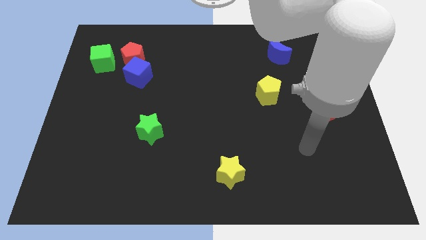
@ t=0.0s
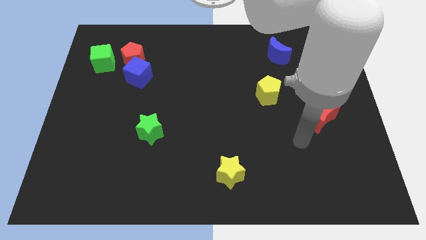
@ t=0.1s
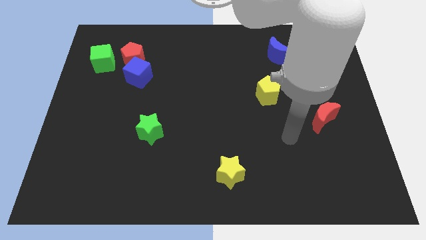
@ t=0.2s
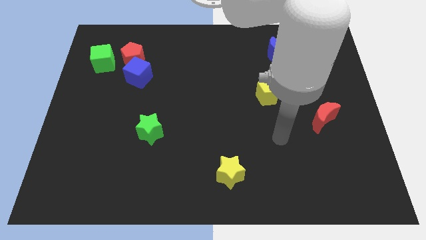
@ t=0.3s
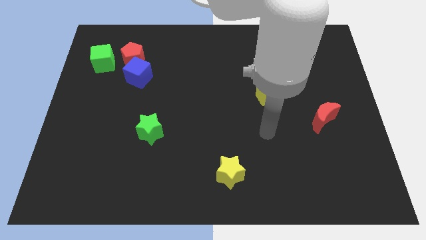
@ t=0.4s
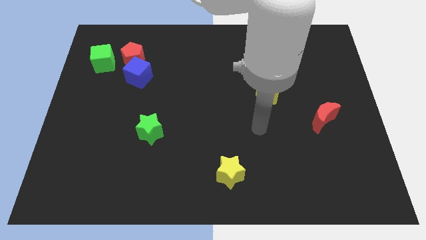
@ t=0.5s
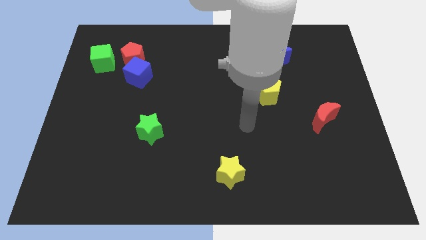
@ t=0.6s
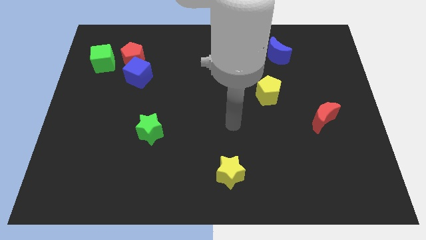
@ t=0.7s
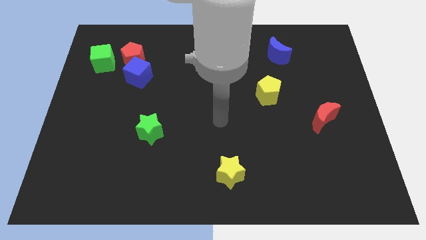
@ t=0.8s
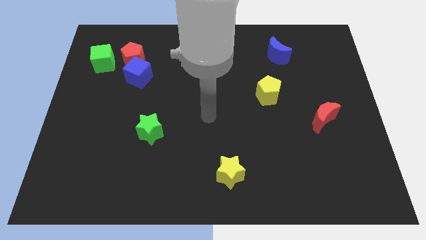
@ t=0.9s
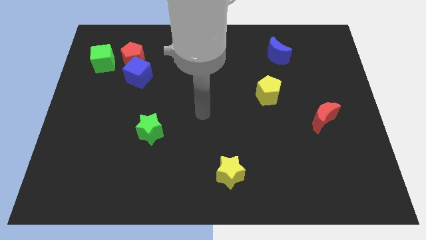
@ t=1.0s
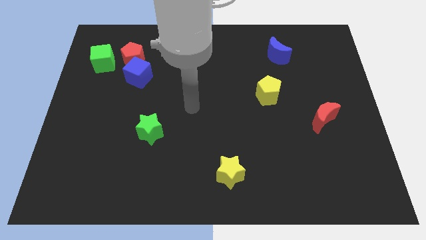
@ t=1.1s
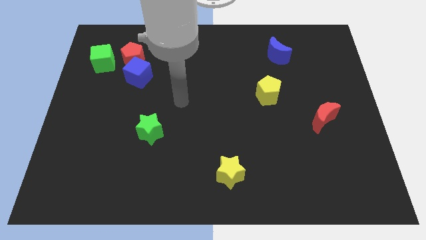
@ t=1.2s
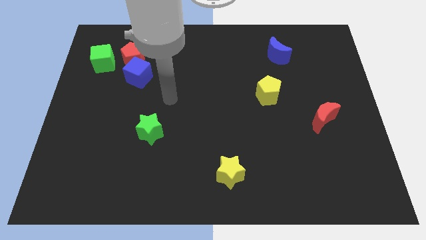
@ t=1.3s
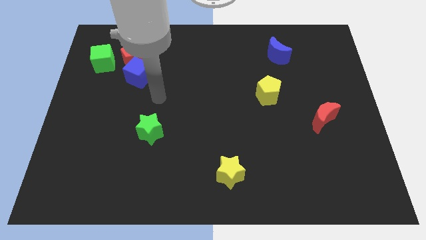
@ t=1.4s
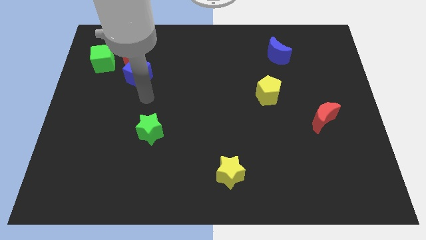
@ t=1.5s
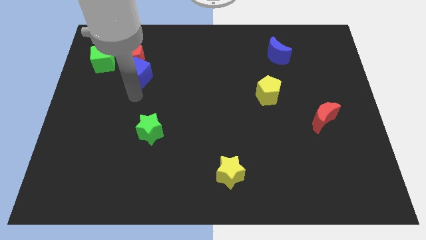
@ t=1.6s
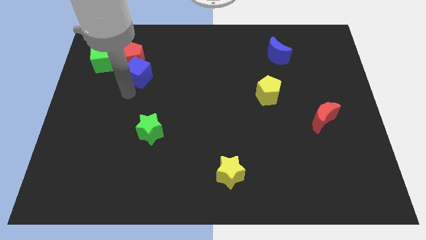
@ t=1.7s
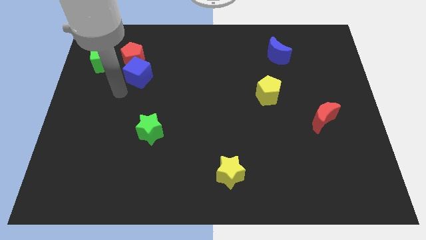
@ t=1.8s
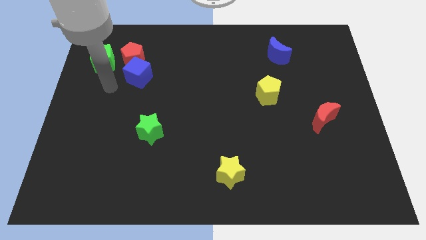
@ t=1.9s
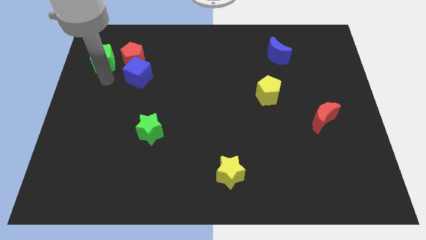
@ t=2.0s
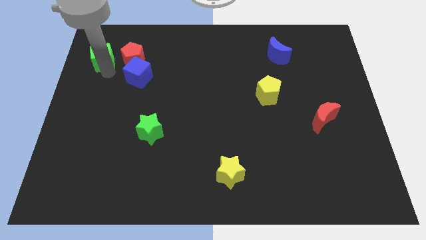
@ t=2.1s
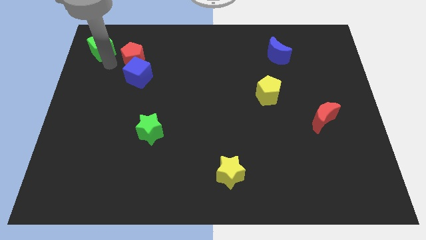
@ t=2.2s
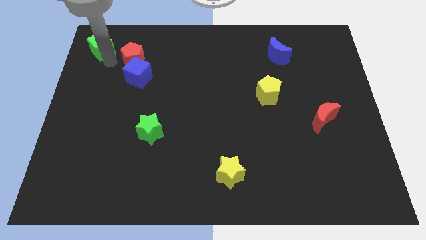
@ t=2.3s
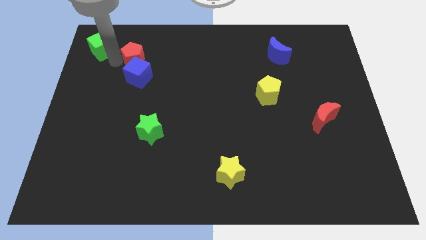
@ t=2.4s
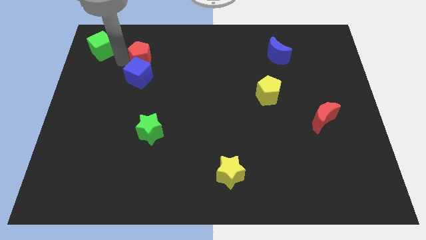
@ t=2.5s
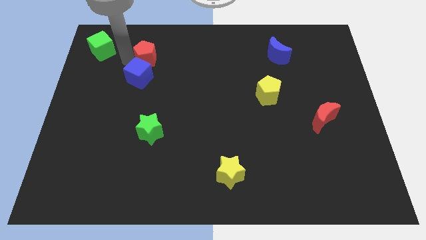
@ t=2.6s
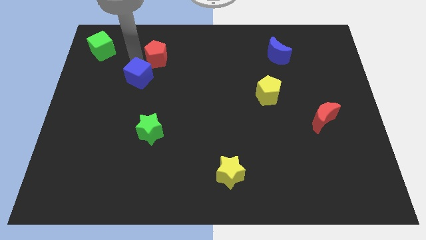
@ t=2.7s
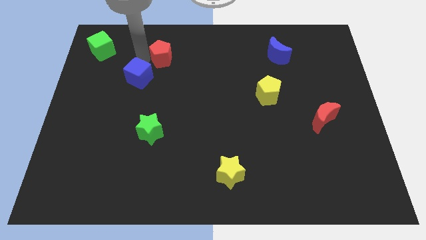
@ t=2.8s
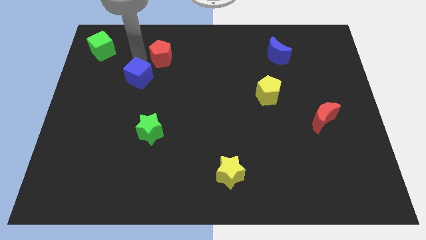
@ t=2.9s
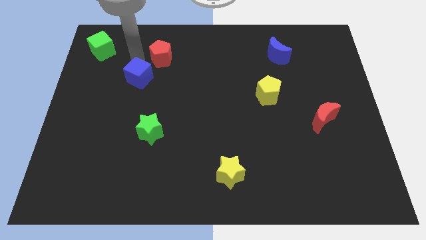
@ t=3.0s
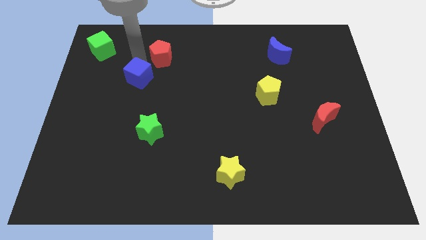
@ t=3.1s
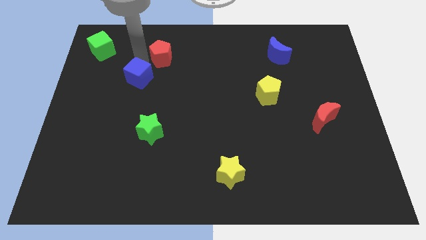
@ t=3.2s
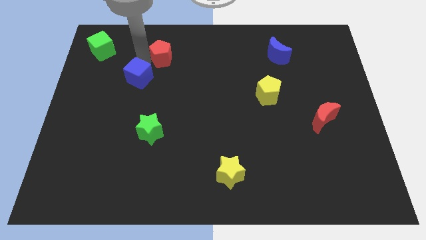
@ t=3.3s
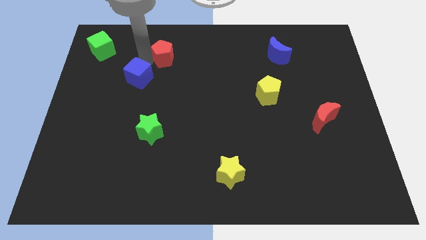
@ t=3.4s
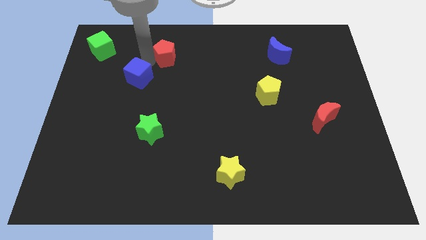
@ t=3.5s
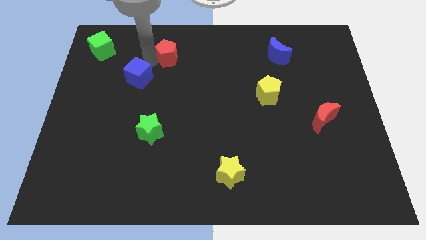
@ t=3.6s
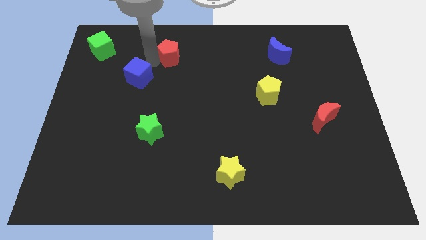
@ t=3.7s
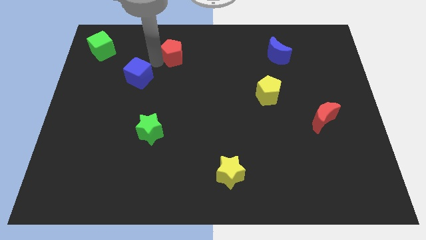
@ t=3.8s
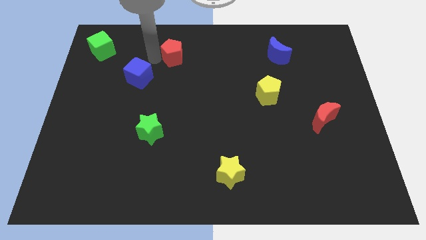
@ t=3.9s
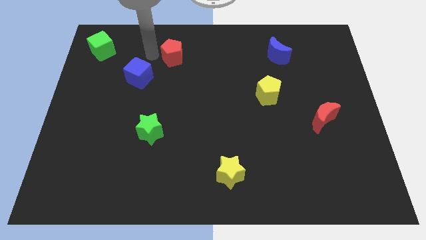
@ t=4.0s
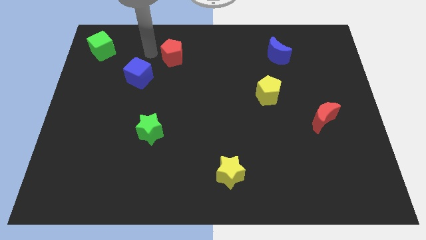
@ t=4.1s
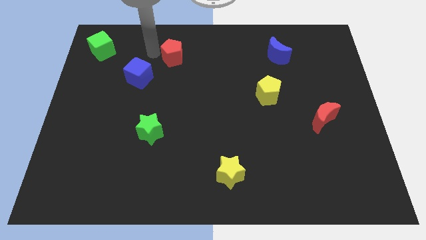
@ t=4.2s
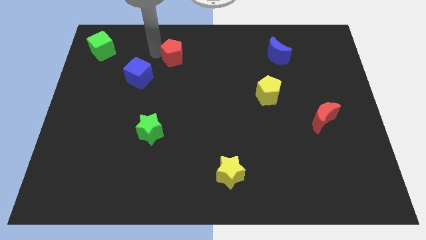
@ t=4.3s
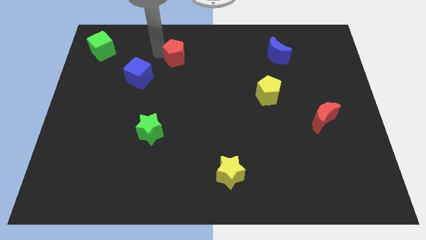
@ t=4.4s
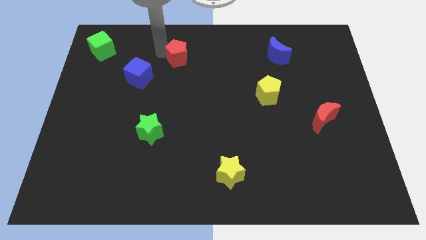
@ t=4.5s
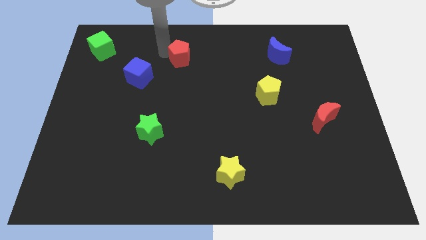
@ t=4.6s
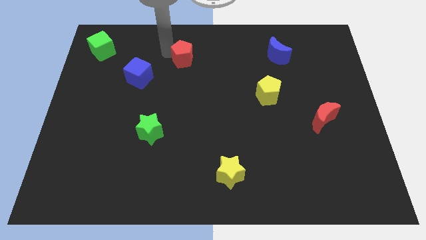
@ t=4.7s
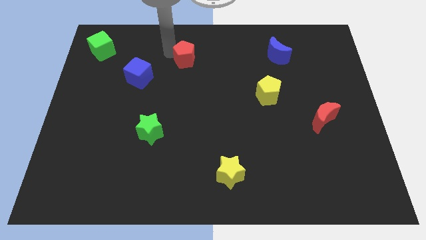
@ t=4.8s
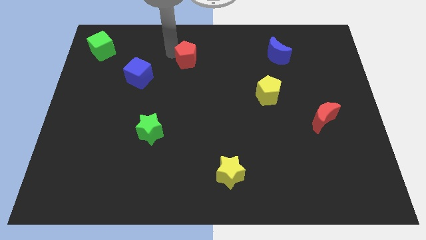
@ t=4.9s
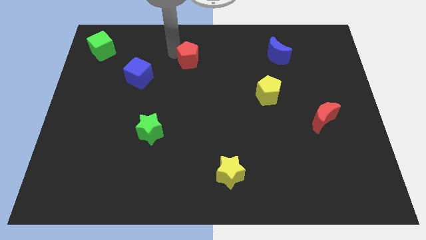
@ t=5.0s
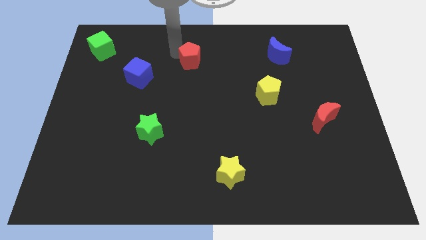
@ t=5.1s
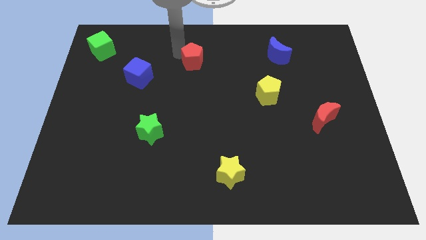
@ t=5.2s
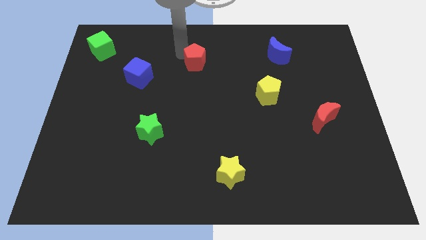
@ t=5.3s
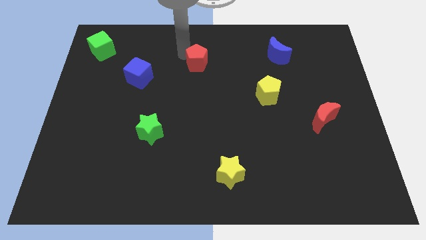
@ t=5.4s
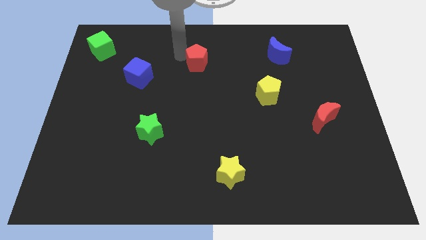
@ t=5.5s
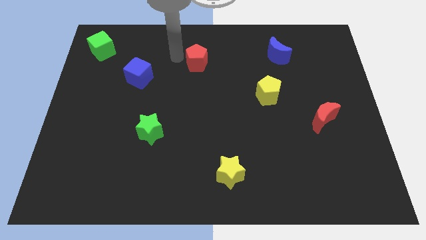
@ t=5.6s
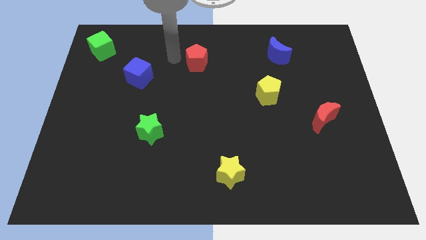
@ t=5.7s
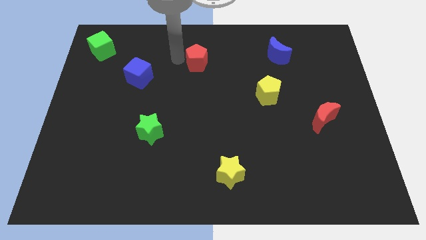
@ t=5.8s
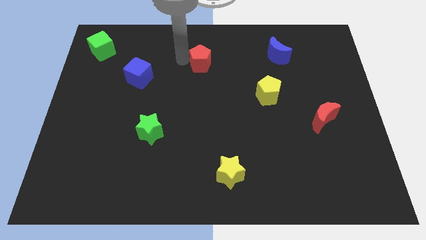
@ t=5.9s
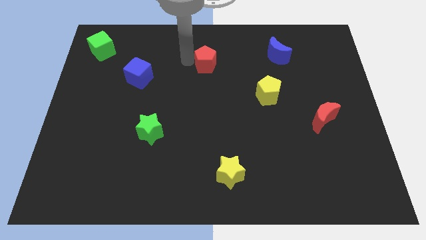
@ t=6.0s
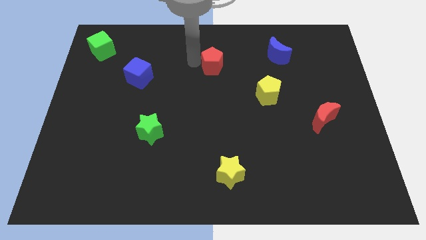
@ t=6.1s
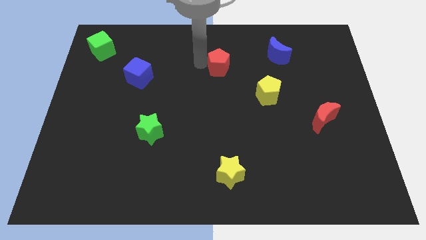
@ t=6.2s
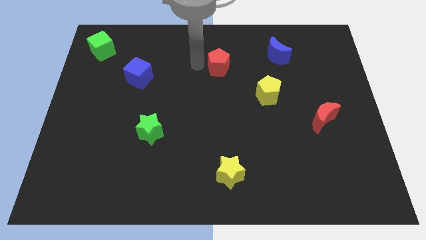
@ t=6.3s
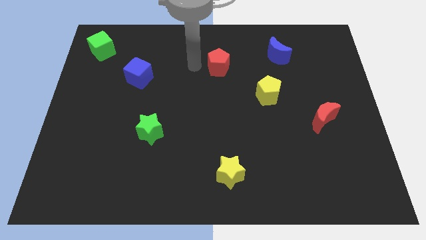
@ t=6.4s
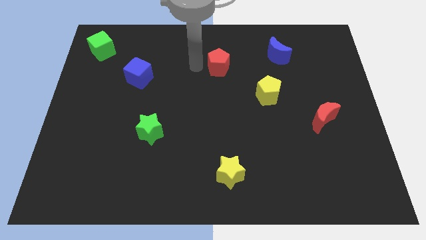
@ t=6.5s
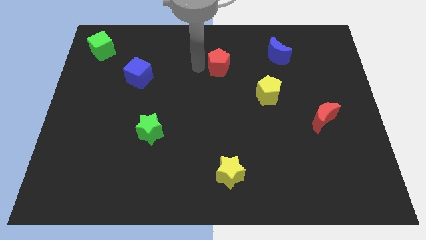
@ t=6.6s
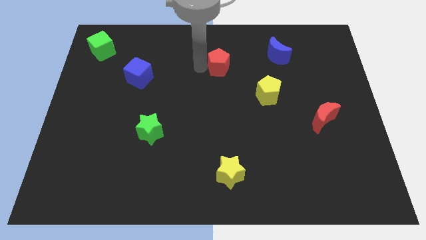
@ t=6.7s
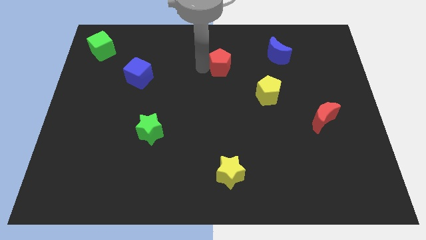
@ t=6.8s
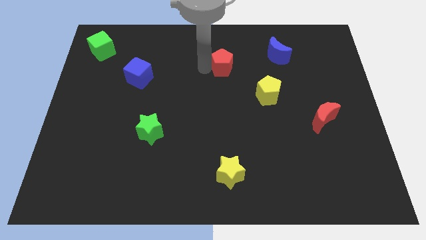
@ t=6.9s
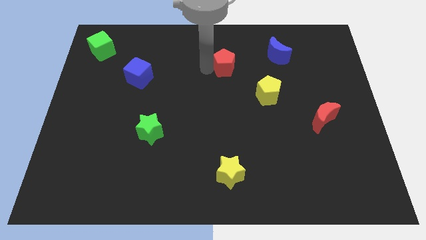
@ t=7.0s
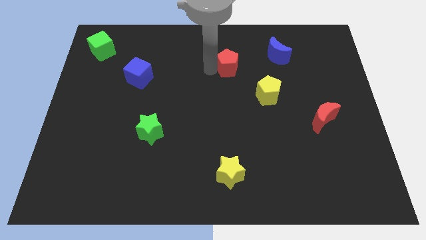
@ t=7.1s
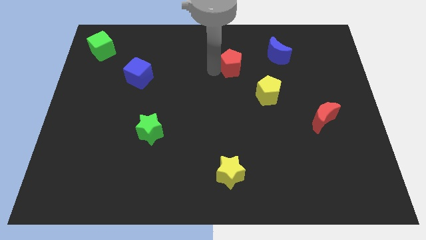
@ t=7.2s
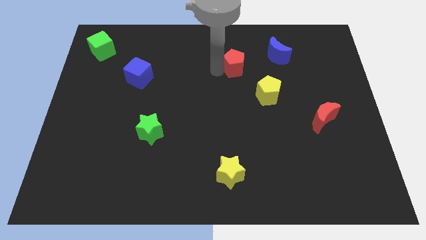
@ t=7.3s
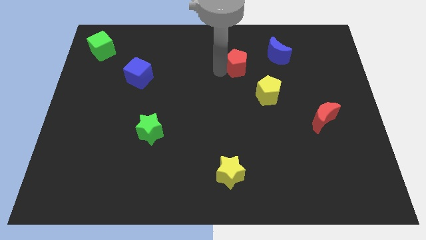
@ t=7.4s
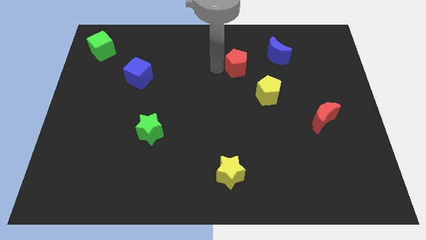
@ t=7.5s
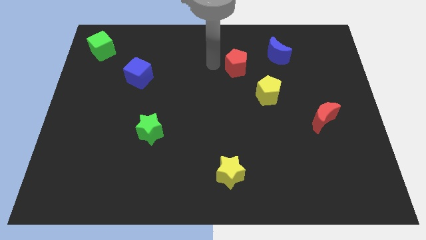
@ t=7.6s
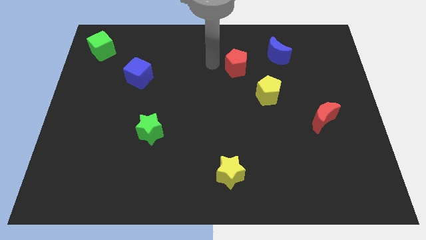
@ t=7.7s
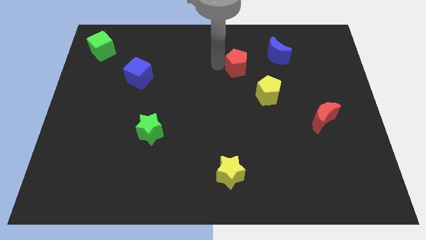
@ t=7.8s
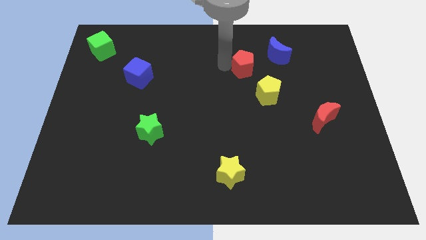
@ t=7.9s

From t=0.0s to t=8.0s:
slide the red pentagon diagonally down and to the left of the blue moon
